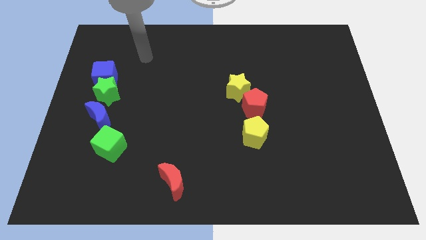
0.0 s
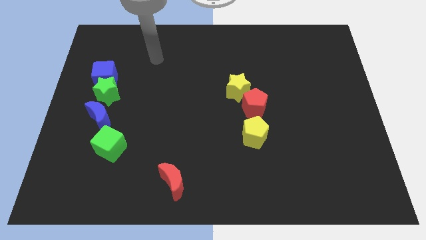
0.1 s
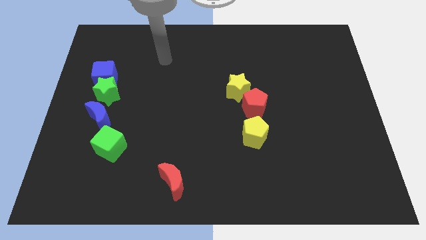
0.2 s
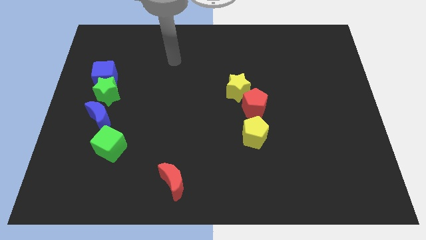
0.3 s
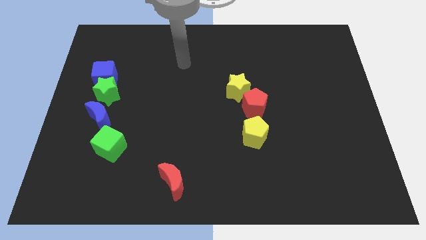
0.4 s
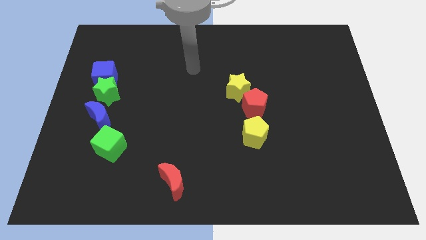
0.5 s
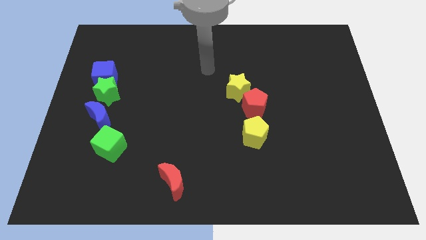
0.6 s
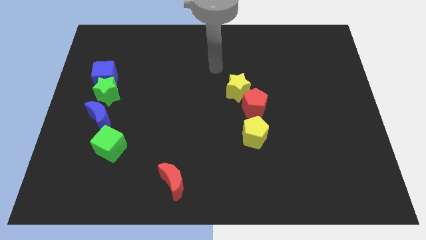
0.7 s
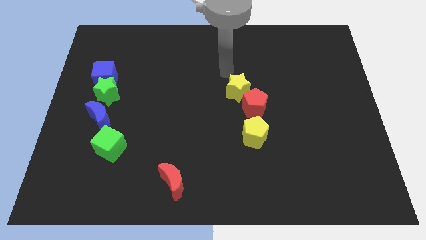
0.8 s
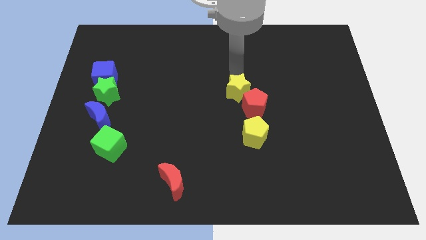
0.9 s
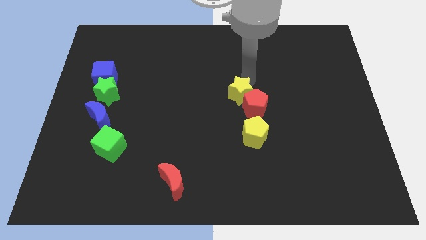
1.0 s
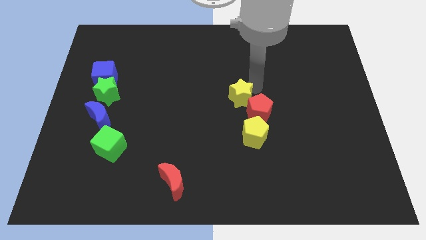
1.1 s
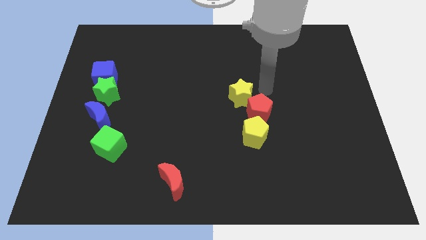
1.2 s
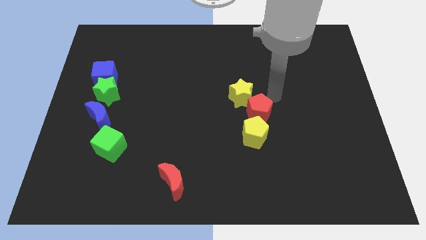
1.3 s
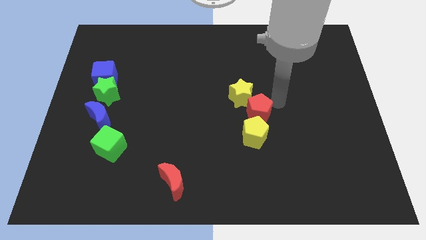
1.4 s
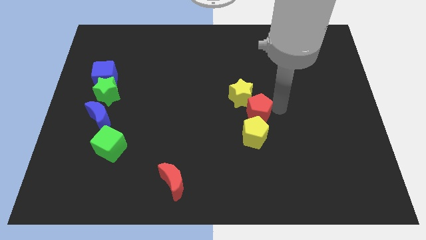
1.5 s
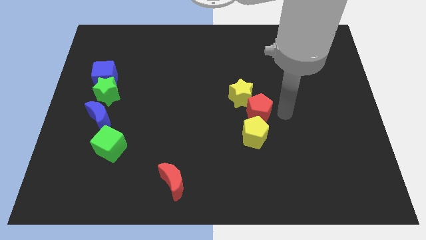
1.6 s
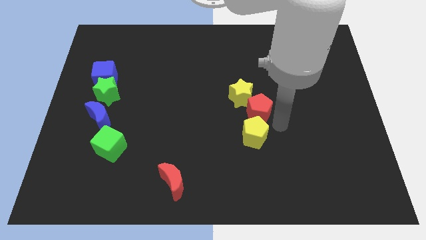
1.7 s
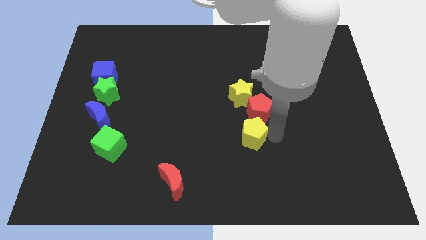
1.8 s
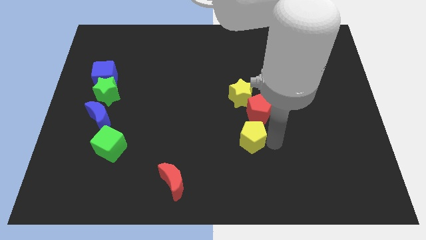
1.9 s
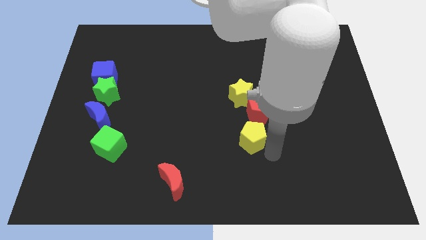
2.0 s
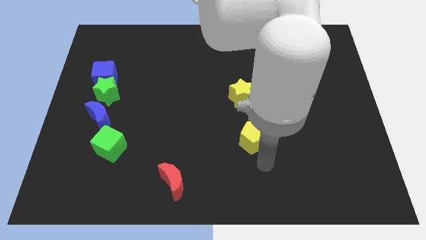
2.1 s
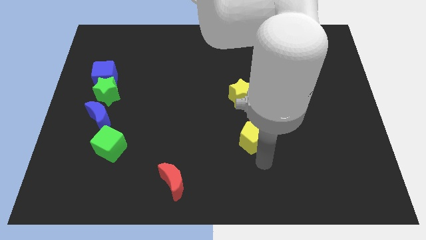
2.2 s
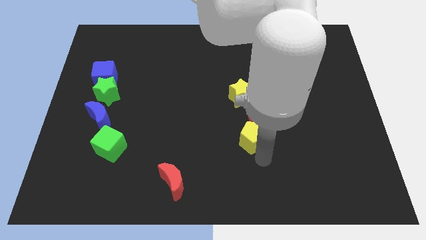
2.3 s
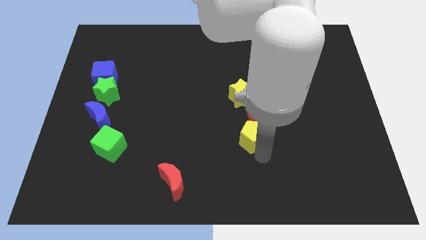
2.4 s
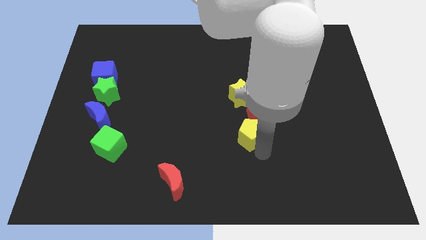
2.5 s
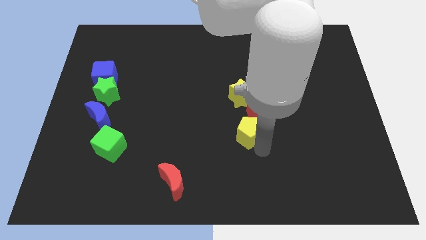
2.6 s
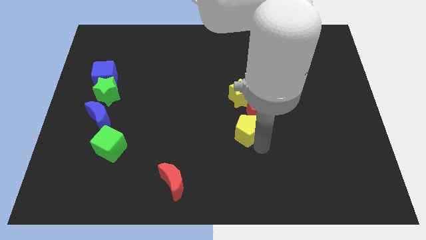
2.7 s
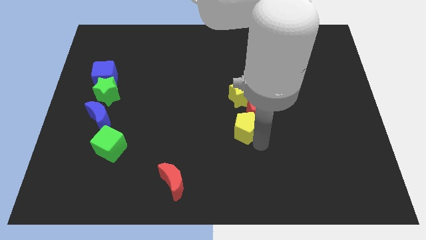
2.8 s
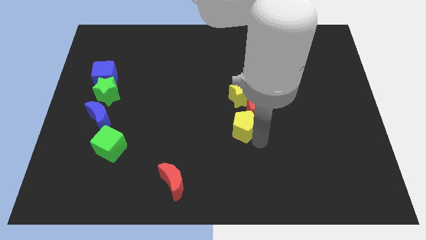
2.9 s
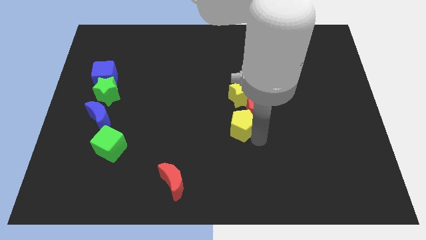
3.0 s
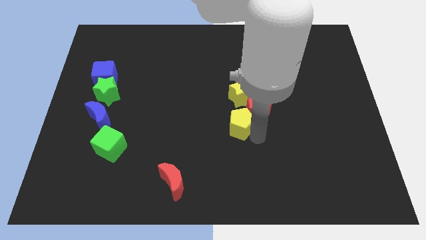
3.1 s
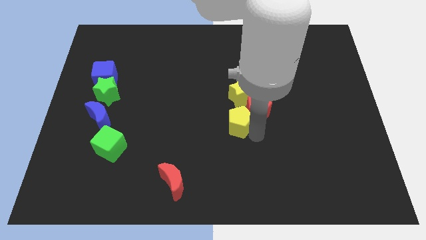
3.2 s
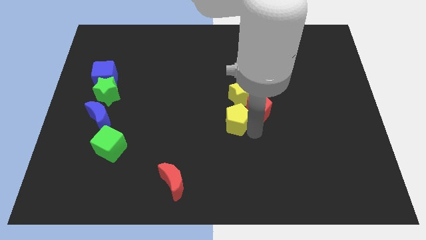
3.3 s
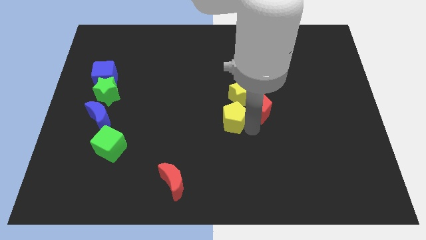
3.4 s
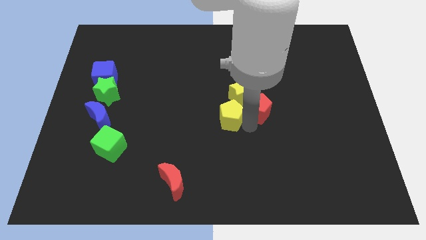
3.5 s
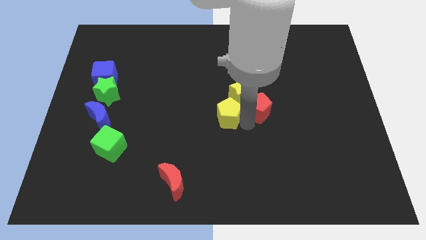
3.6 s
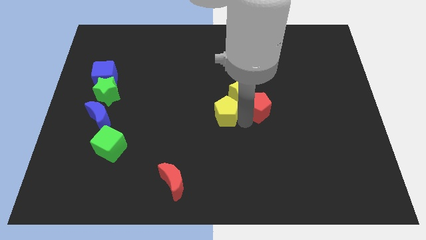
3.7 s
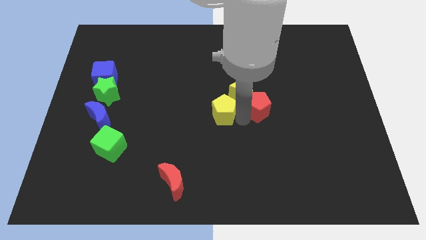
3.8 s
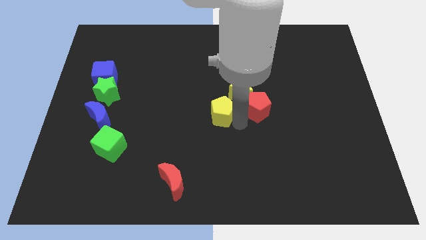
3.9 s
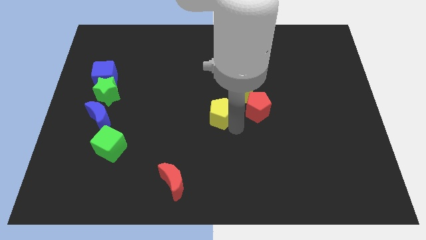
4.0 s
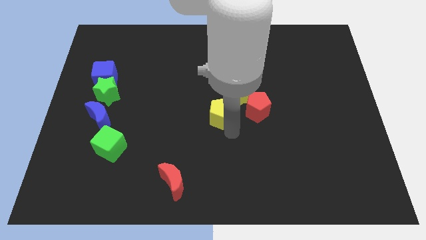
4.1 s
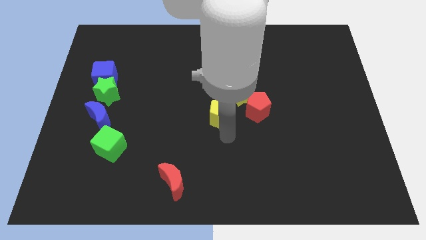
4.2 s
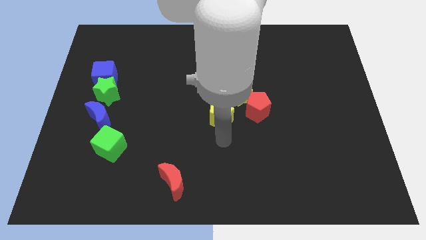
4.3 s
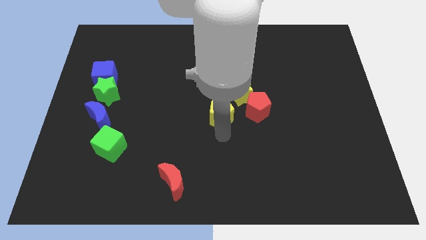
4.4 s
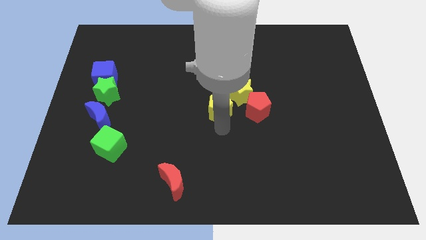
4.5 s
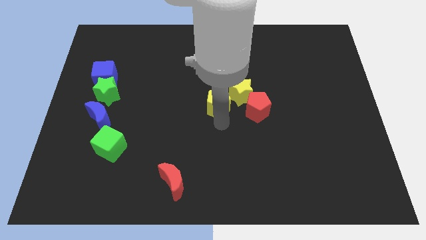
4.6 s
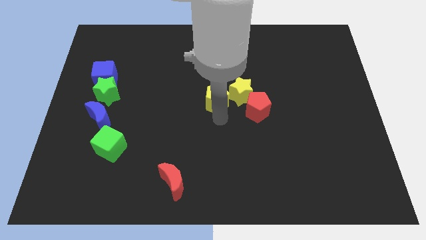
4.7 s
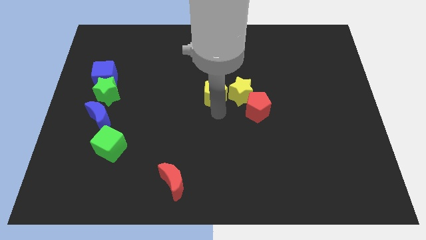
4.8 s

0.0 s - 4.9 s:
slide the yellow pentagon to the top left of the yellow star

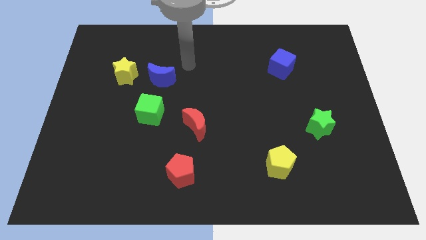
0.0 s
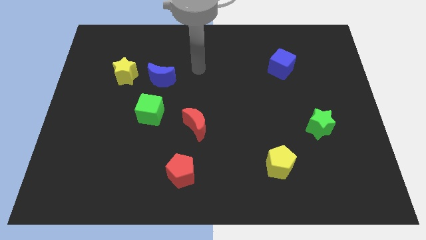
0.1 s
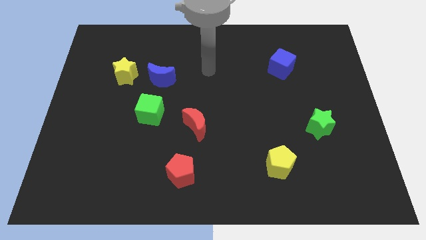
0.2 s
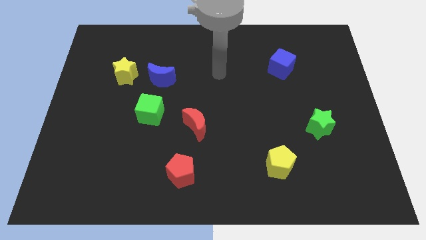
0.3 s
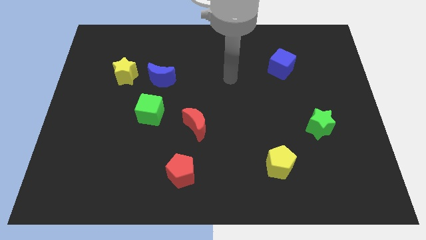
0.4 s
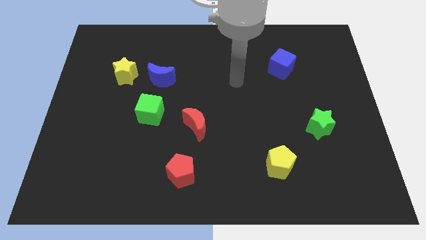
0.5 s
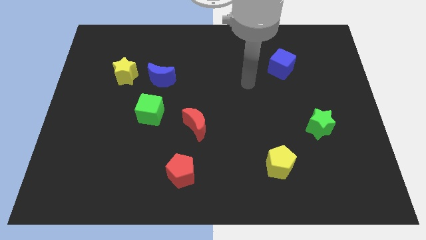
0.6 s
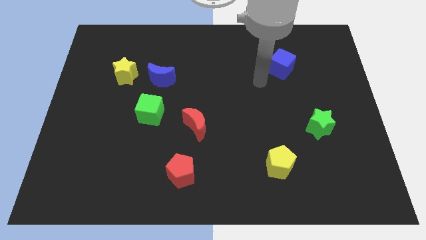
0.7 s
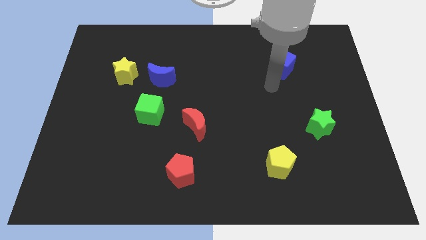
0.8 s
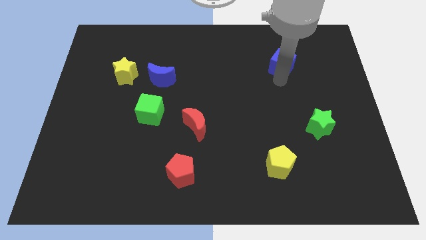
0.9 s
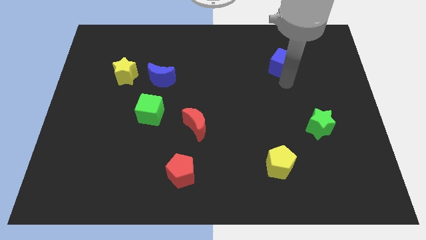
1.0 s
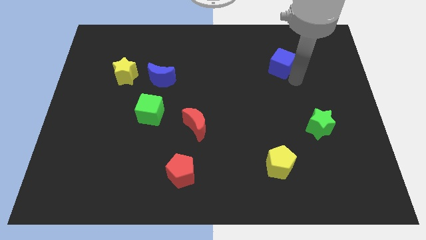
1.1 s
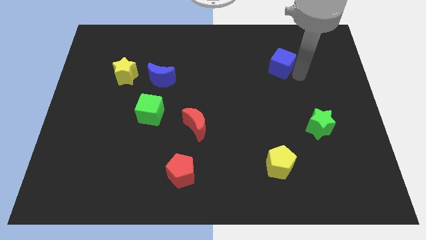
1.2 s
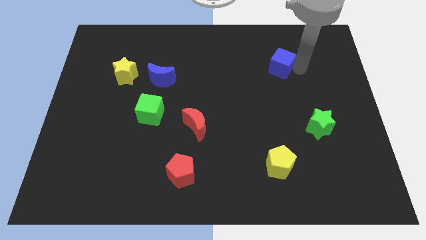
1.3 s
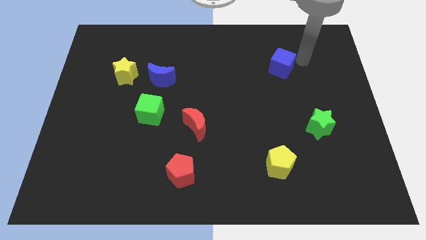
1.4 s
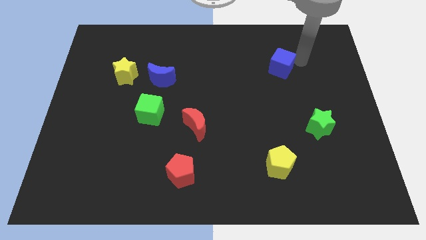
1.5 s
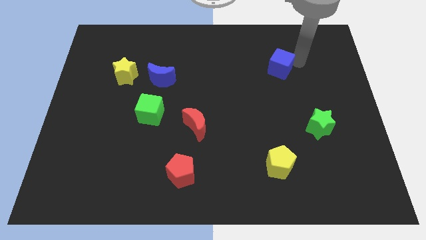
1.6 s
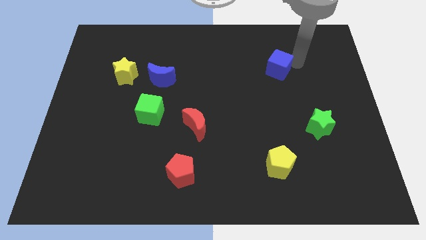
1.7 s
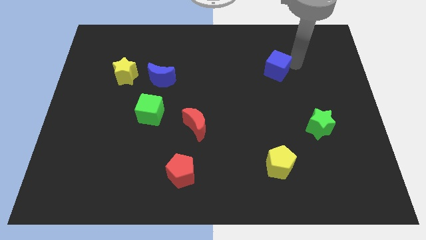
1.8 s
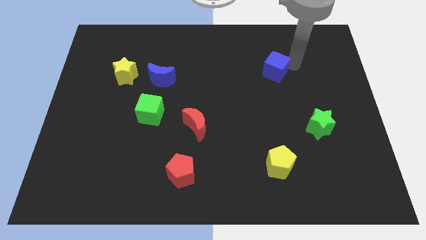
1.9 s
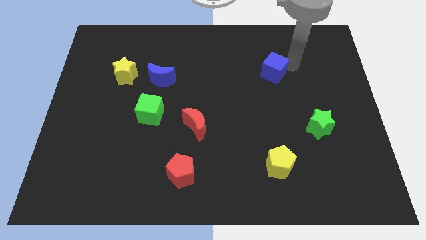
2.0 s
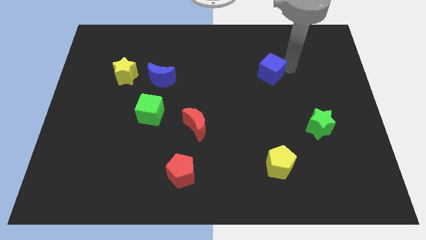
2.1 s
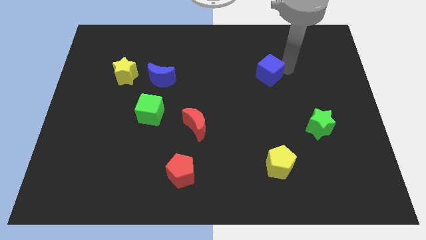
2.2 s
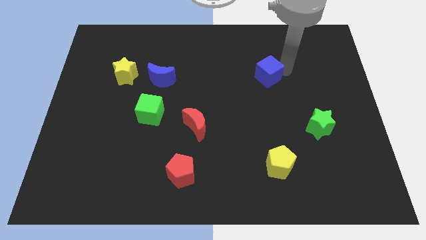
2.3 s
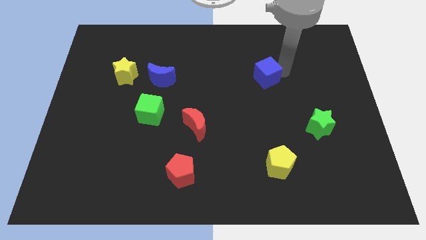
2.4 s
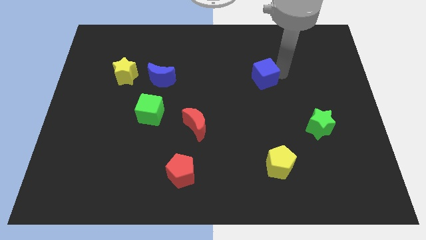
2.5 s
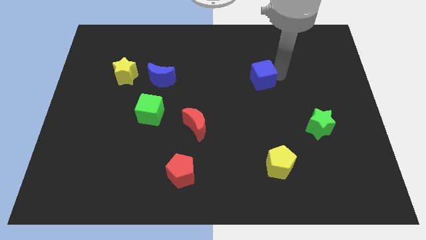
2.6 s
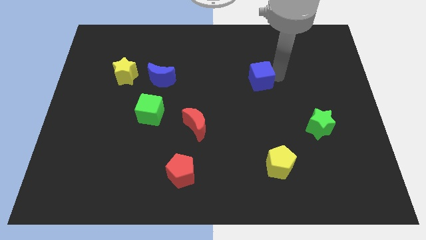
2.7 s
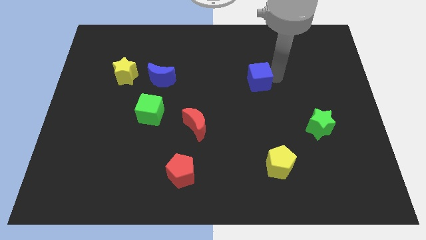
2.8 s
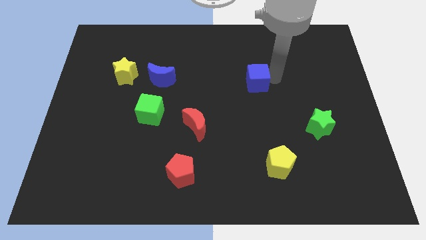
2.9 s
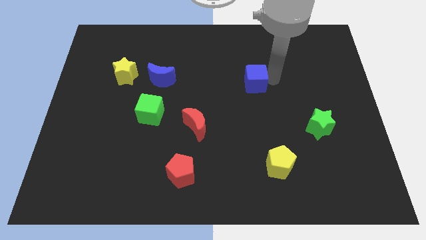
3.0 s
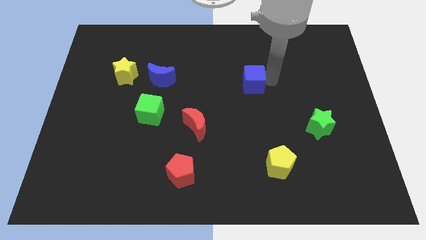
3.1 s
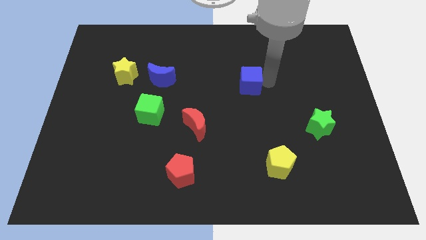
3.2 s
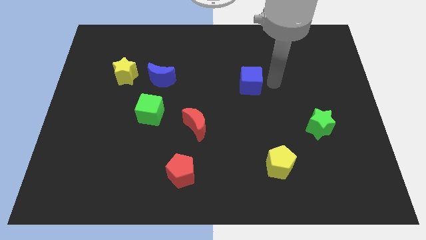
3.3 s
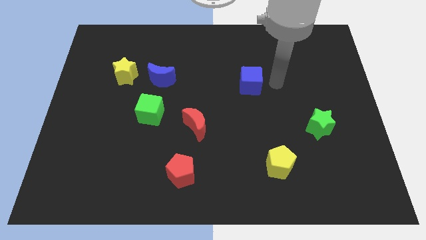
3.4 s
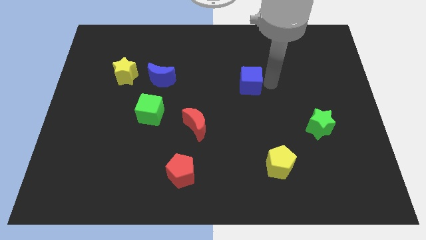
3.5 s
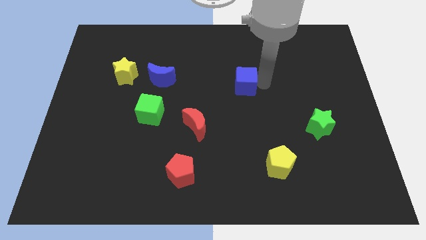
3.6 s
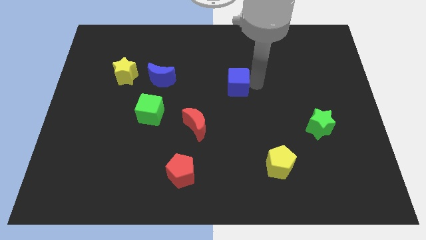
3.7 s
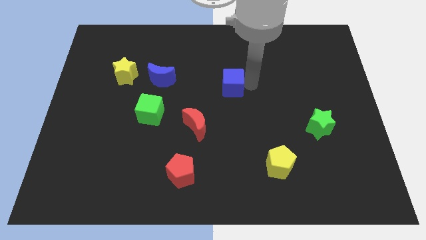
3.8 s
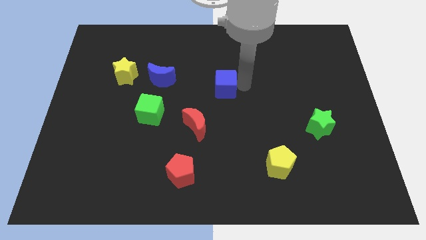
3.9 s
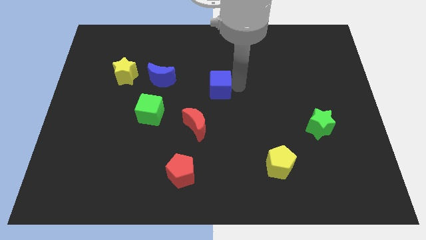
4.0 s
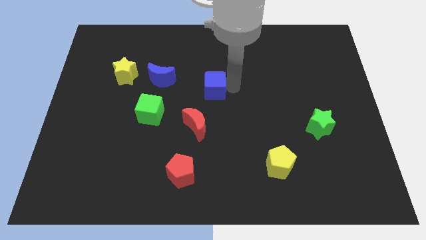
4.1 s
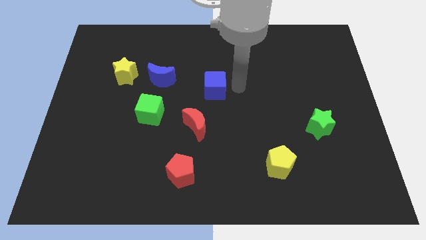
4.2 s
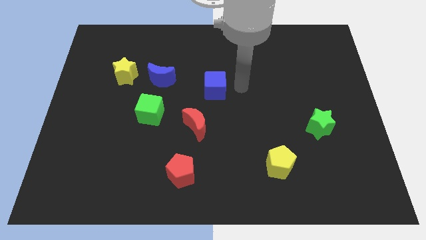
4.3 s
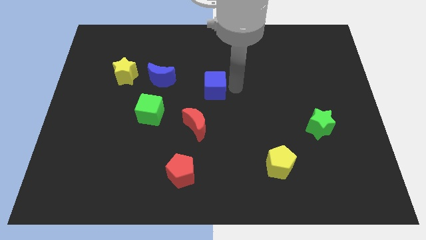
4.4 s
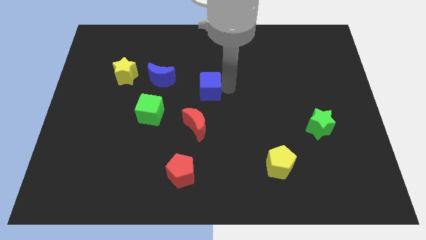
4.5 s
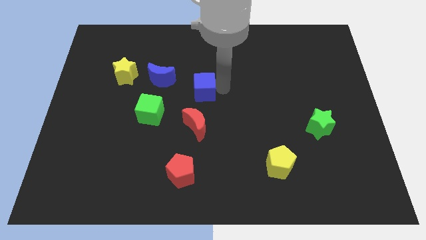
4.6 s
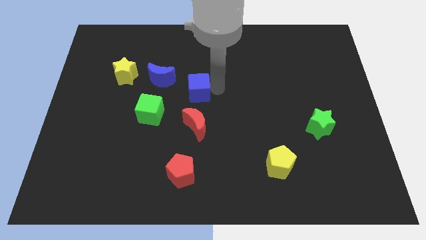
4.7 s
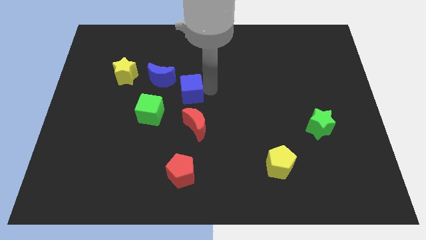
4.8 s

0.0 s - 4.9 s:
move the blue cube to the top right side of the green cube
